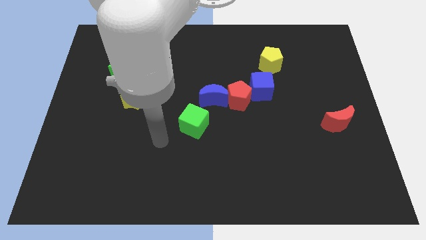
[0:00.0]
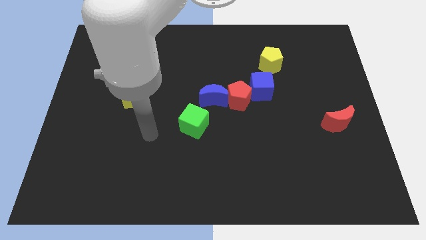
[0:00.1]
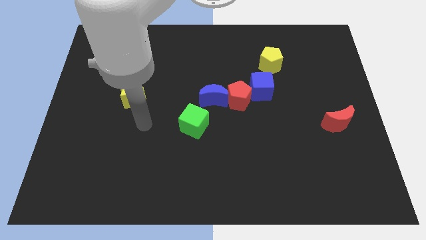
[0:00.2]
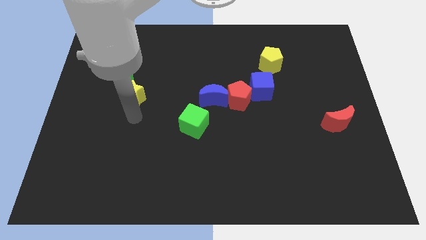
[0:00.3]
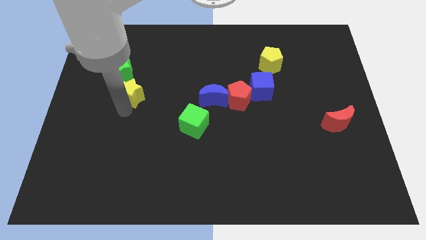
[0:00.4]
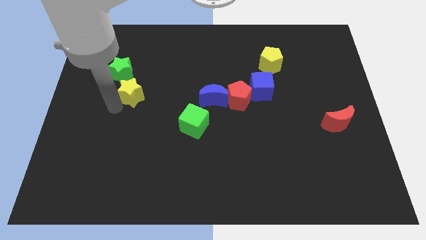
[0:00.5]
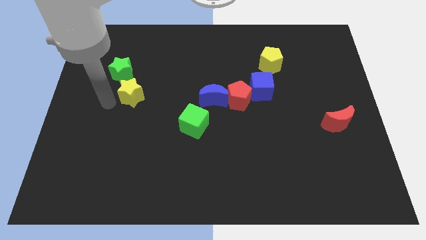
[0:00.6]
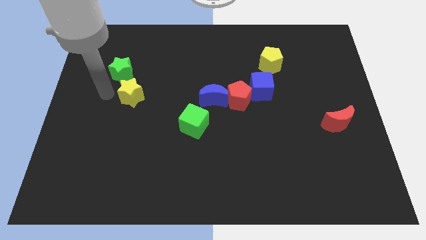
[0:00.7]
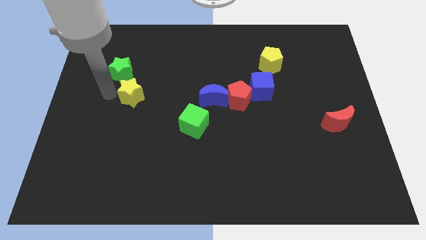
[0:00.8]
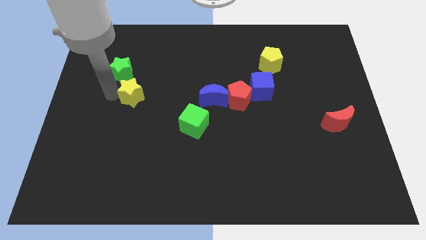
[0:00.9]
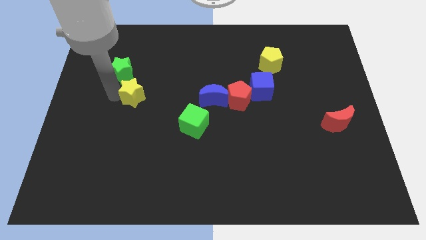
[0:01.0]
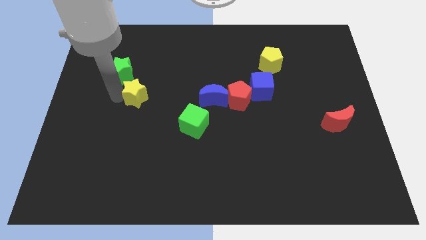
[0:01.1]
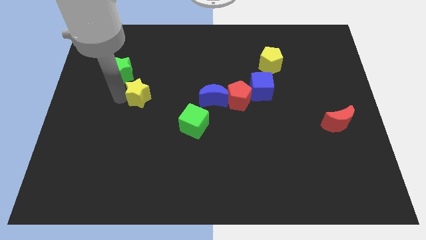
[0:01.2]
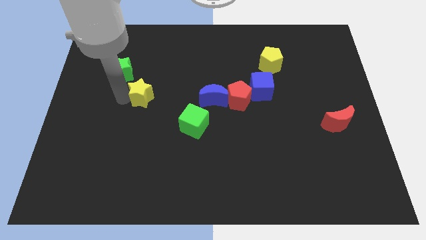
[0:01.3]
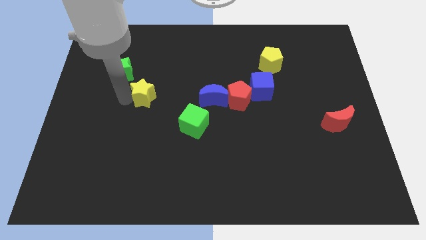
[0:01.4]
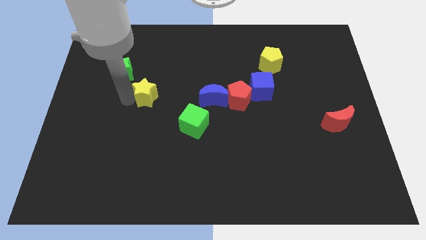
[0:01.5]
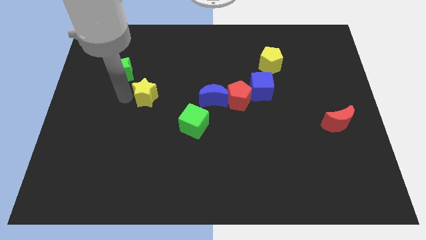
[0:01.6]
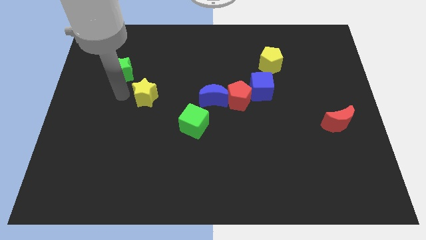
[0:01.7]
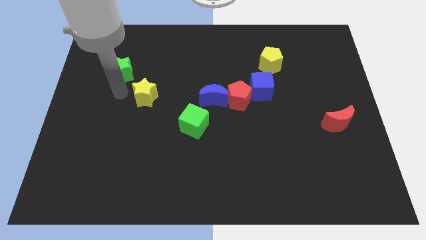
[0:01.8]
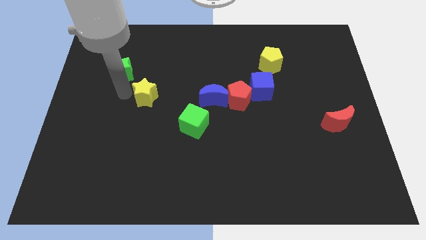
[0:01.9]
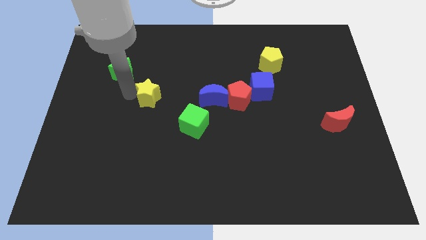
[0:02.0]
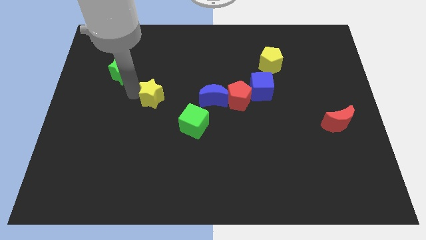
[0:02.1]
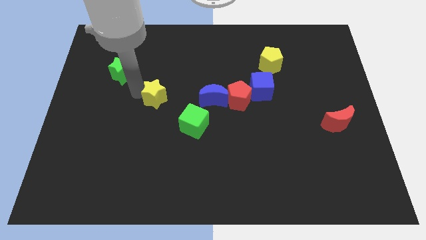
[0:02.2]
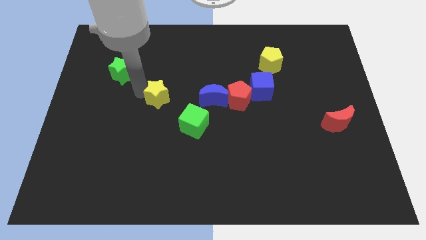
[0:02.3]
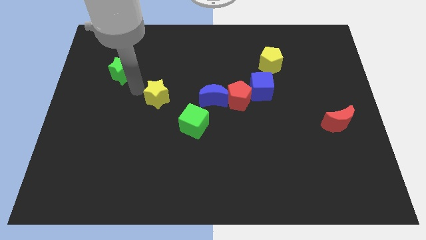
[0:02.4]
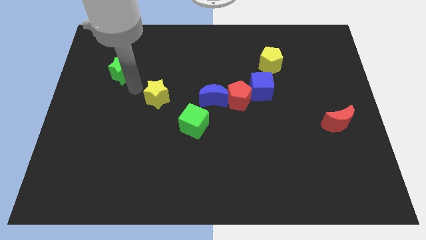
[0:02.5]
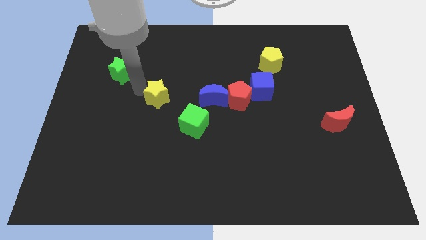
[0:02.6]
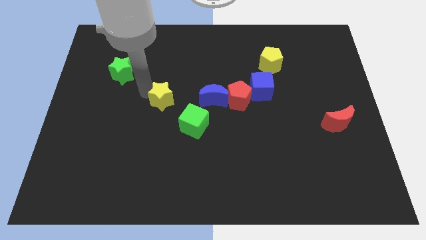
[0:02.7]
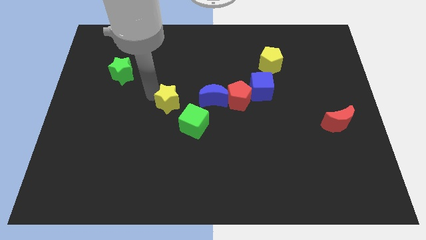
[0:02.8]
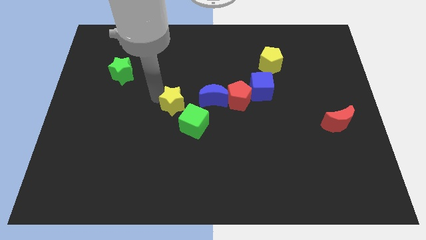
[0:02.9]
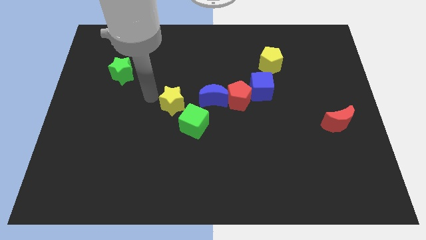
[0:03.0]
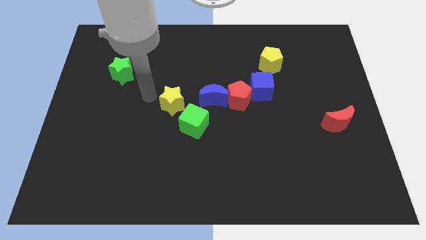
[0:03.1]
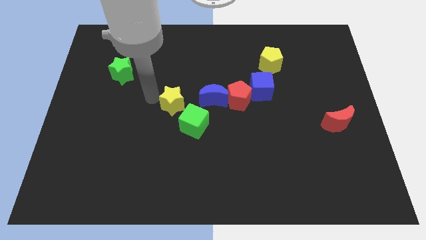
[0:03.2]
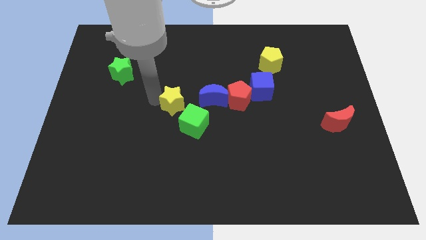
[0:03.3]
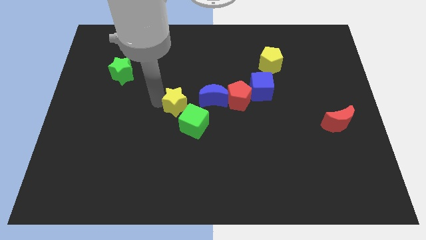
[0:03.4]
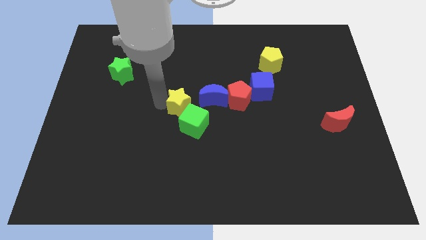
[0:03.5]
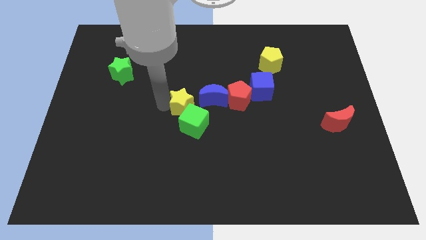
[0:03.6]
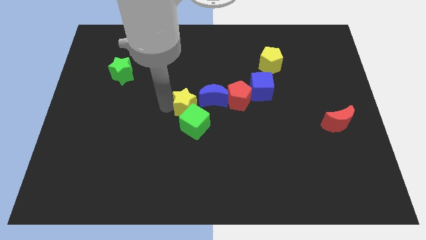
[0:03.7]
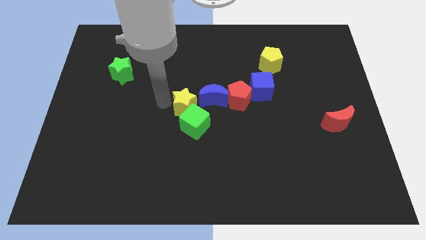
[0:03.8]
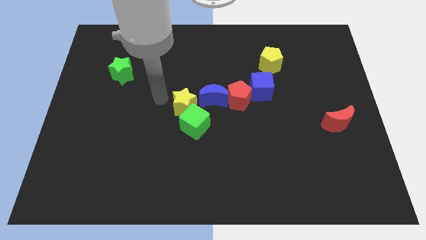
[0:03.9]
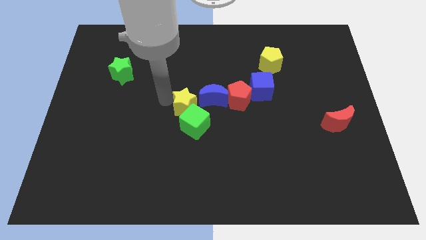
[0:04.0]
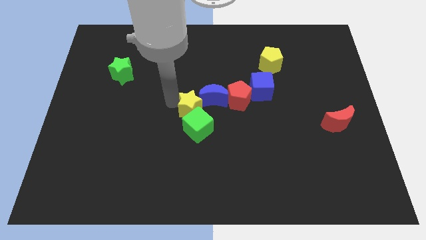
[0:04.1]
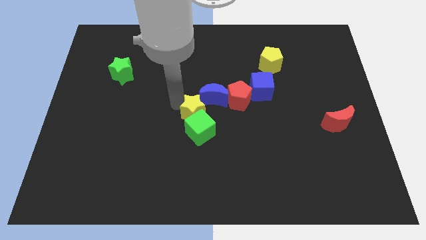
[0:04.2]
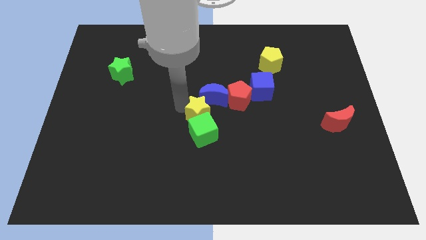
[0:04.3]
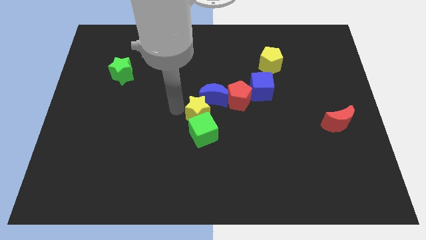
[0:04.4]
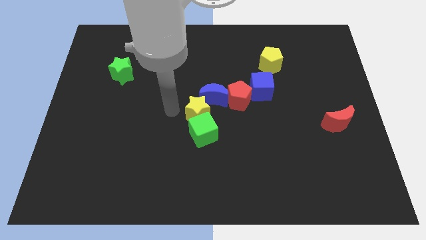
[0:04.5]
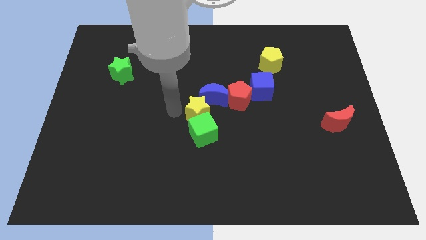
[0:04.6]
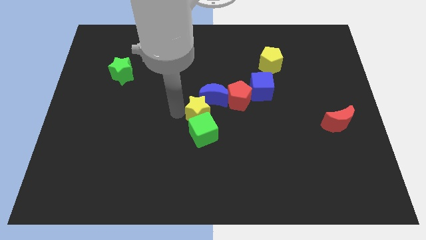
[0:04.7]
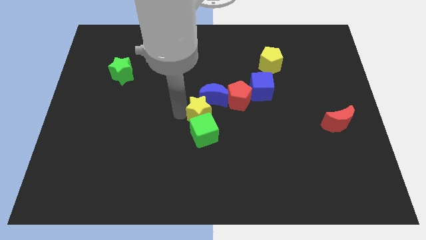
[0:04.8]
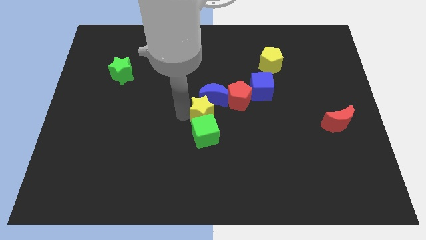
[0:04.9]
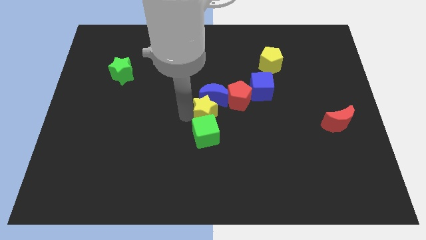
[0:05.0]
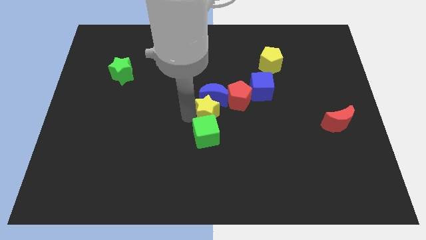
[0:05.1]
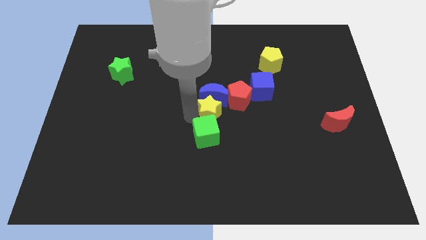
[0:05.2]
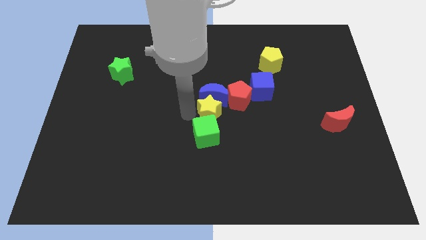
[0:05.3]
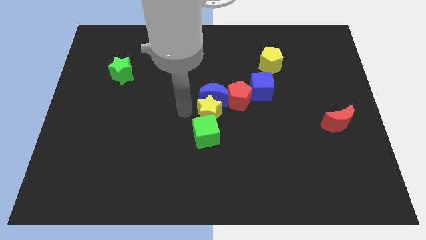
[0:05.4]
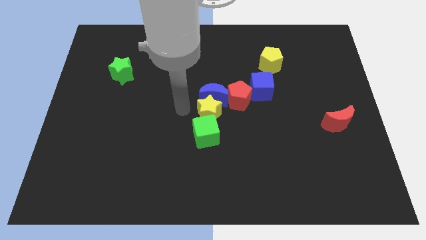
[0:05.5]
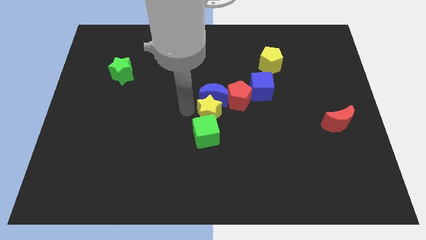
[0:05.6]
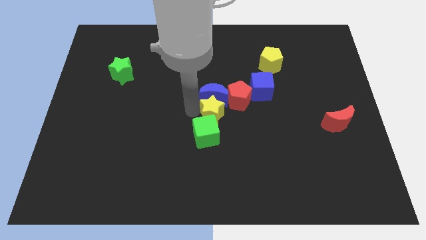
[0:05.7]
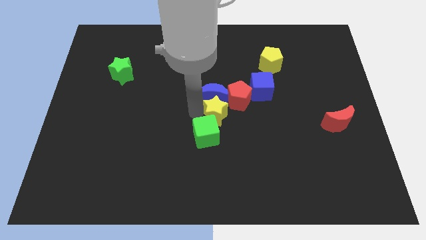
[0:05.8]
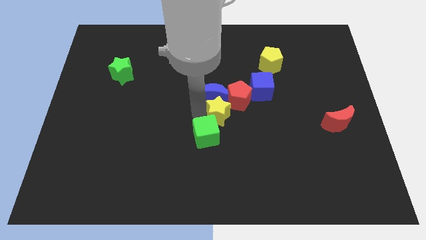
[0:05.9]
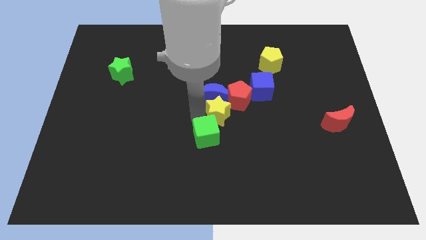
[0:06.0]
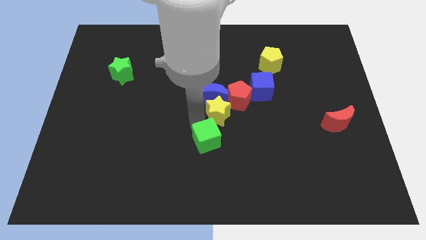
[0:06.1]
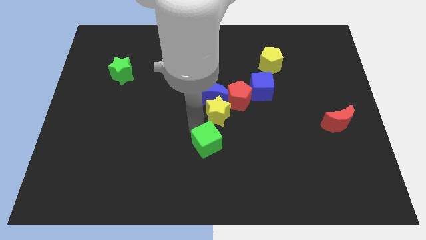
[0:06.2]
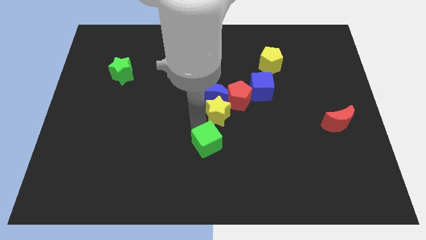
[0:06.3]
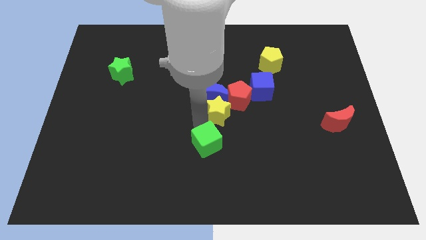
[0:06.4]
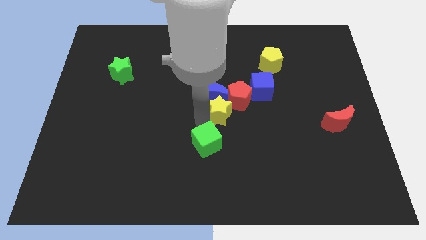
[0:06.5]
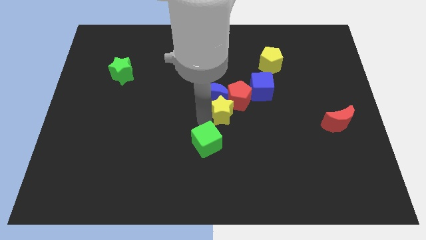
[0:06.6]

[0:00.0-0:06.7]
move the yellow star to the red pentagon

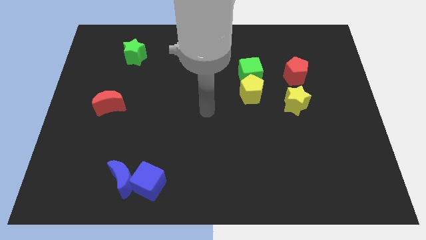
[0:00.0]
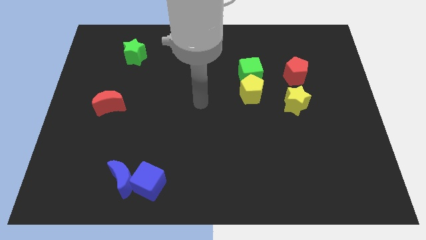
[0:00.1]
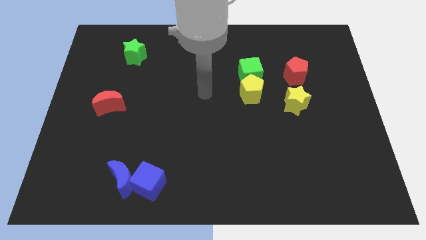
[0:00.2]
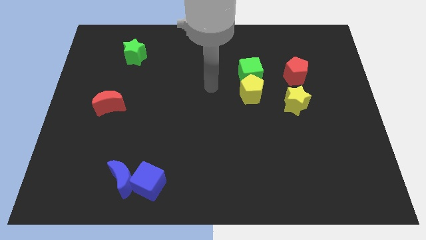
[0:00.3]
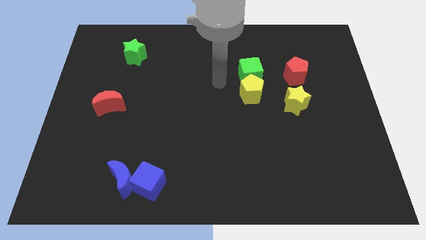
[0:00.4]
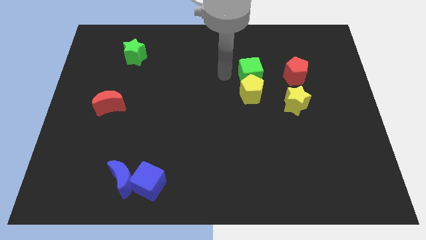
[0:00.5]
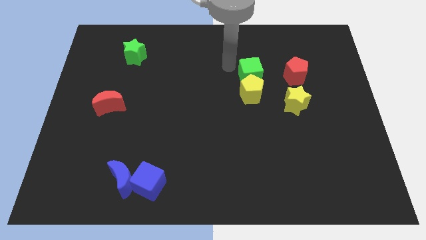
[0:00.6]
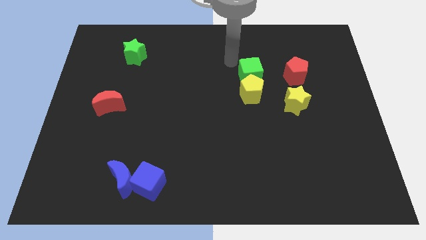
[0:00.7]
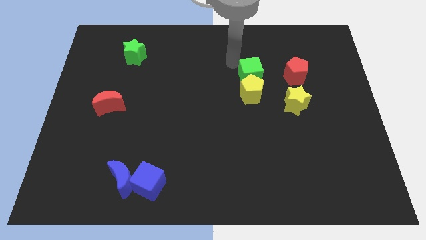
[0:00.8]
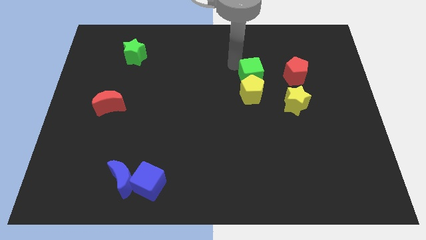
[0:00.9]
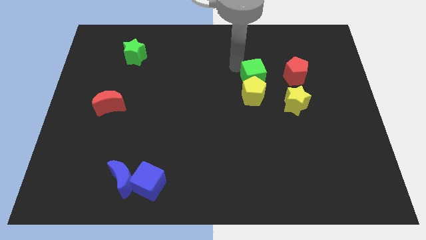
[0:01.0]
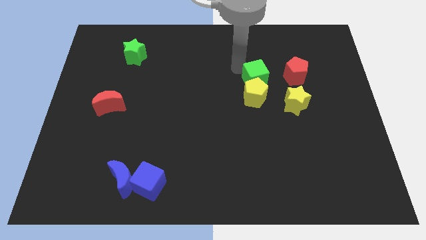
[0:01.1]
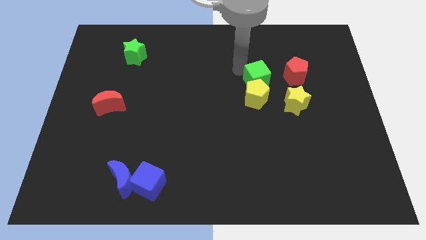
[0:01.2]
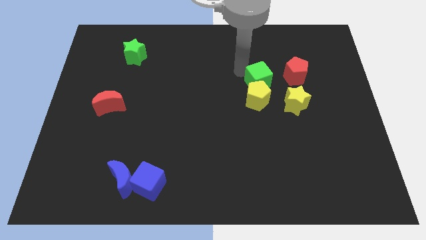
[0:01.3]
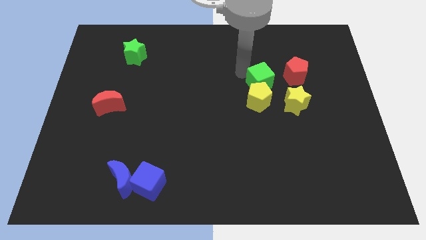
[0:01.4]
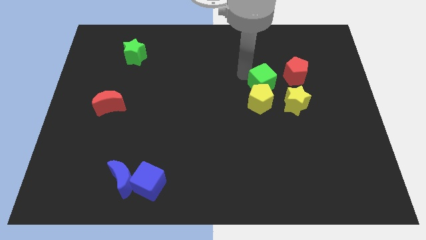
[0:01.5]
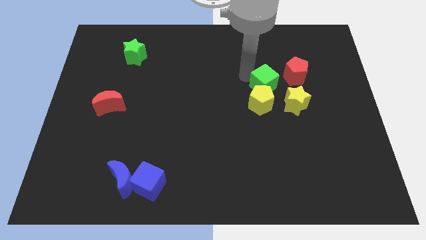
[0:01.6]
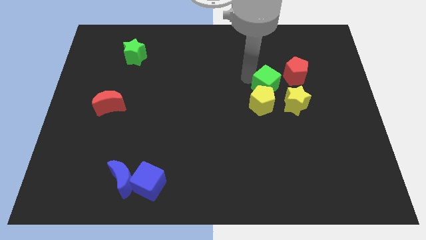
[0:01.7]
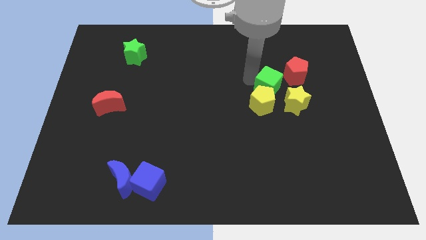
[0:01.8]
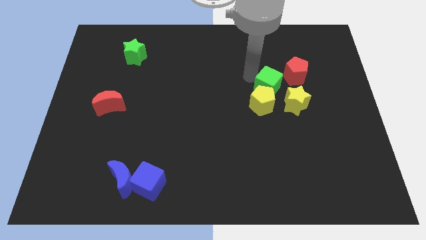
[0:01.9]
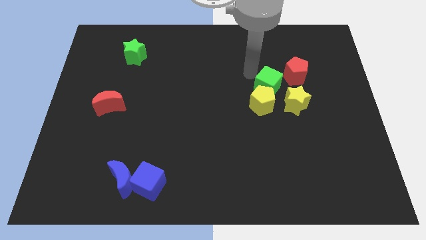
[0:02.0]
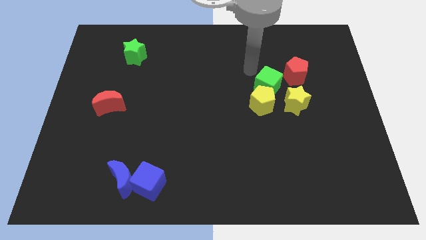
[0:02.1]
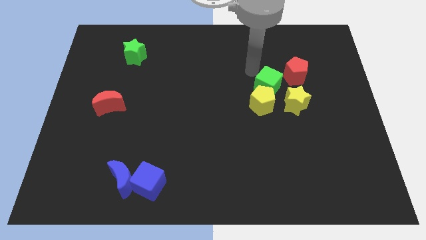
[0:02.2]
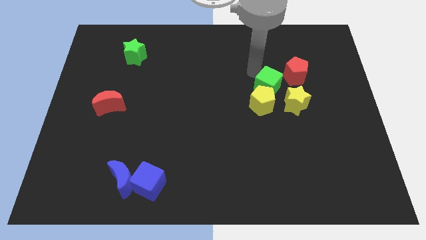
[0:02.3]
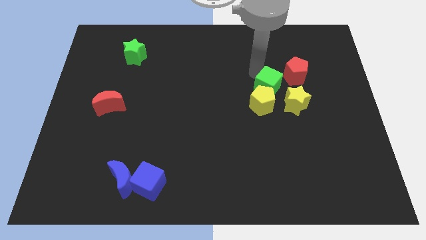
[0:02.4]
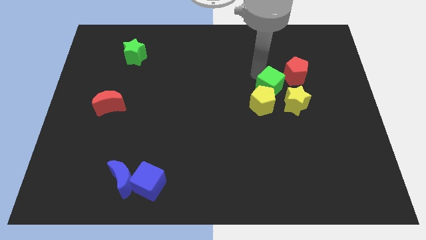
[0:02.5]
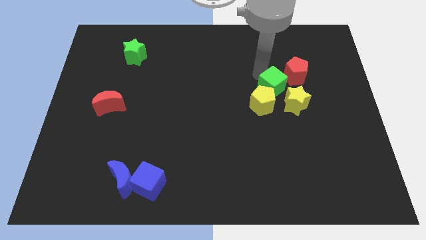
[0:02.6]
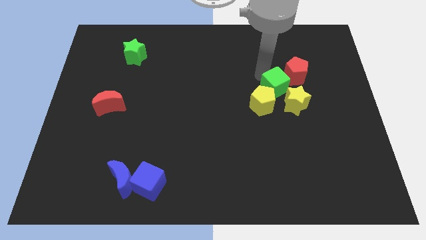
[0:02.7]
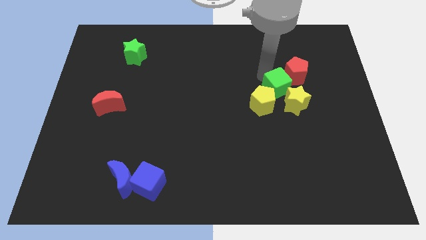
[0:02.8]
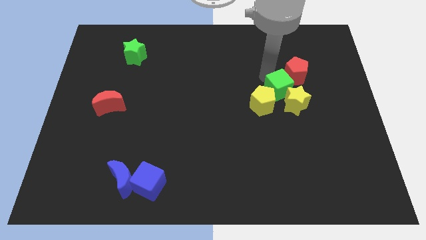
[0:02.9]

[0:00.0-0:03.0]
slide the green cube to the yellow star
